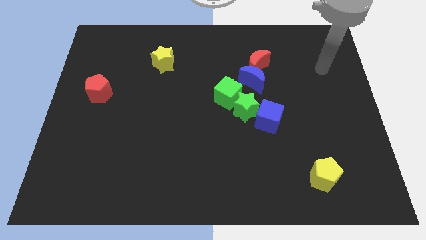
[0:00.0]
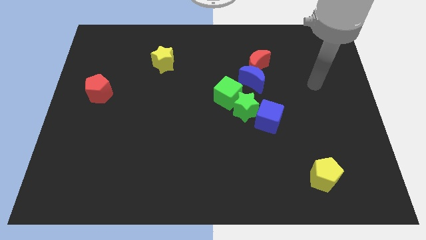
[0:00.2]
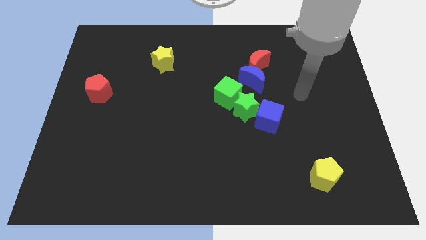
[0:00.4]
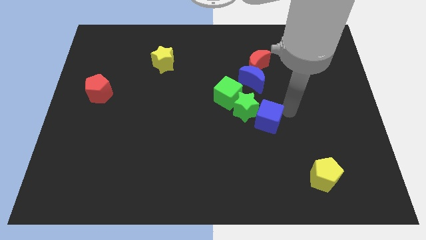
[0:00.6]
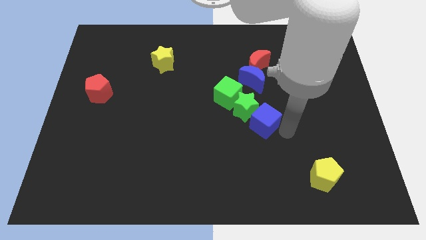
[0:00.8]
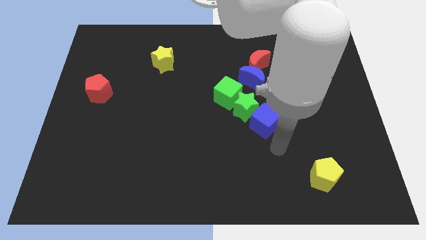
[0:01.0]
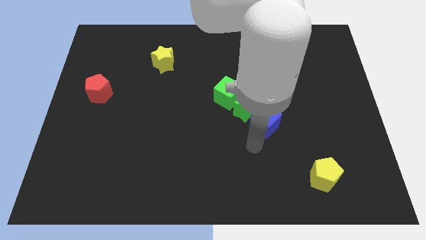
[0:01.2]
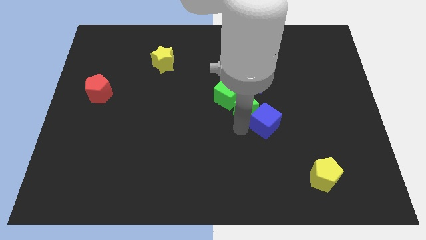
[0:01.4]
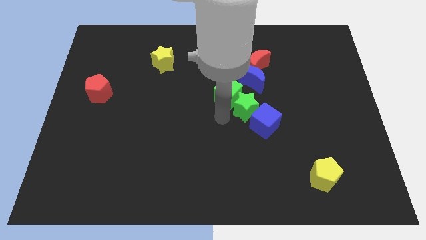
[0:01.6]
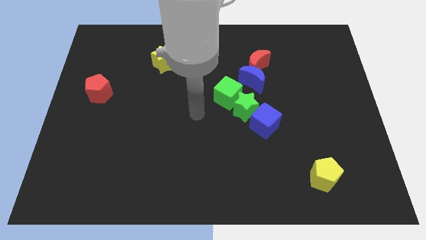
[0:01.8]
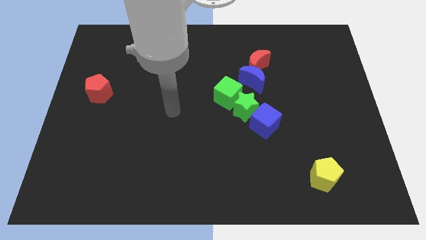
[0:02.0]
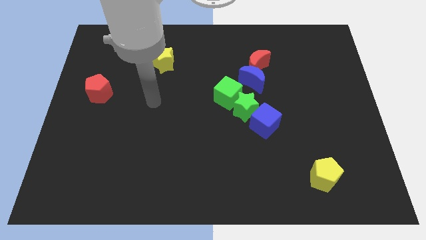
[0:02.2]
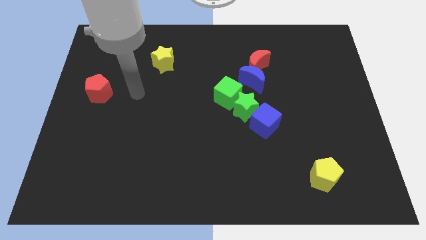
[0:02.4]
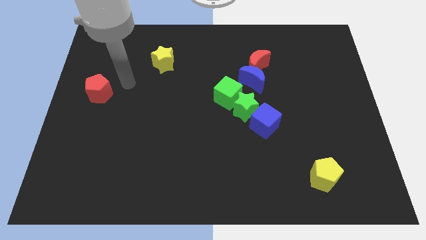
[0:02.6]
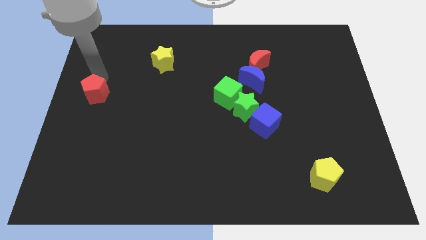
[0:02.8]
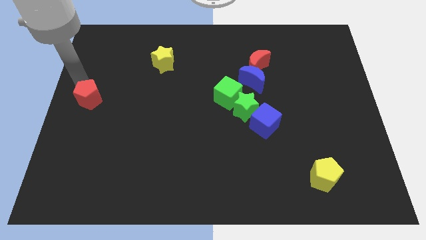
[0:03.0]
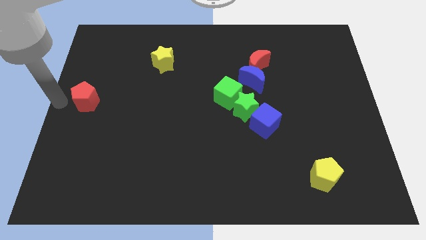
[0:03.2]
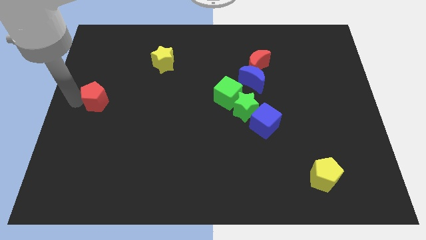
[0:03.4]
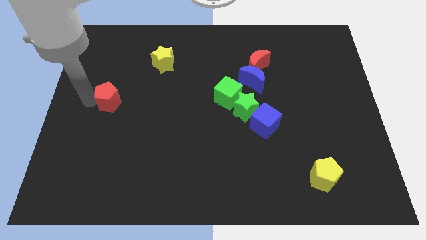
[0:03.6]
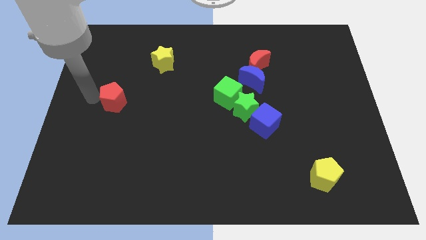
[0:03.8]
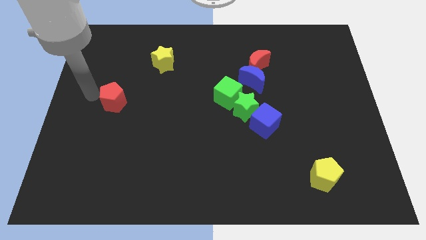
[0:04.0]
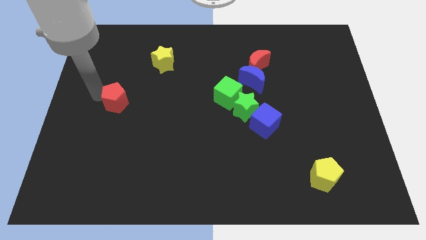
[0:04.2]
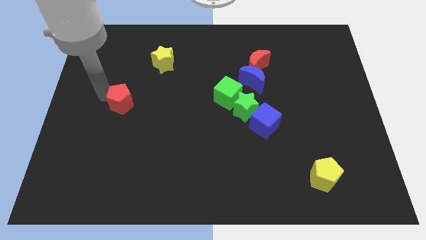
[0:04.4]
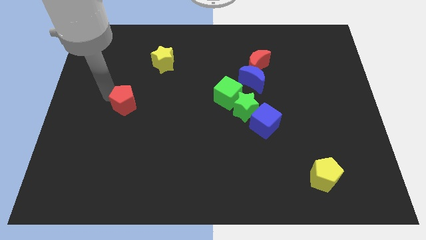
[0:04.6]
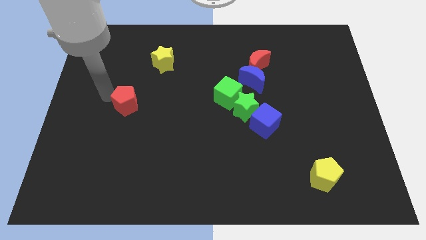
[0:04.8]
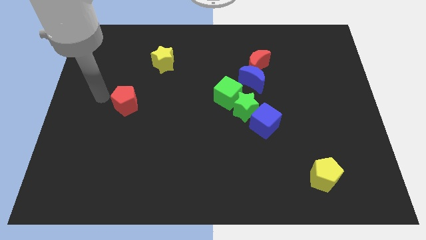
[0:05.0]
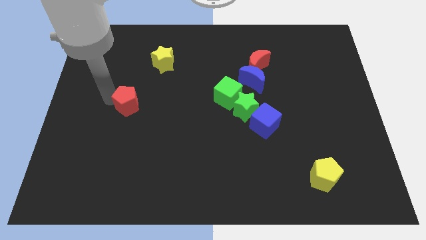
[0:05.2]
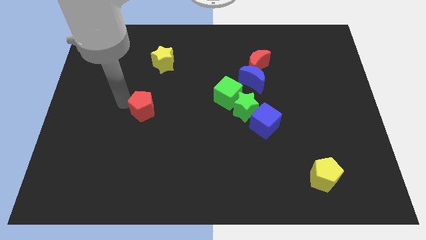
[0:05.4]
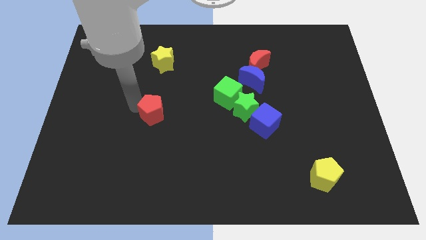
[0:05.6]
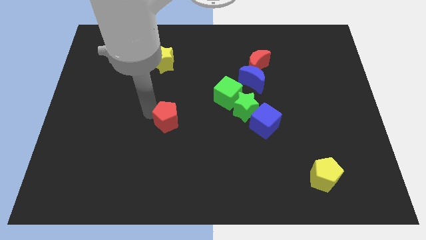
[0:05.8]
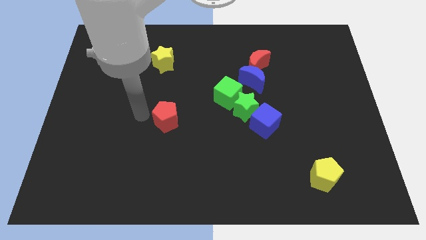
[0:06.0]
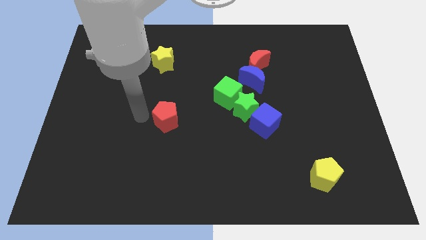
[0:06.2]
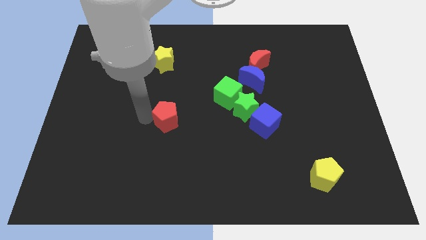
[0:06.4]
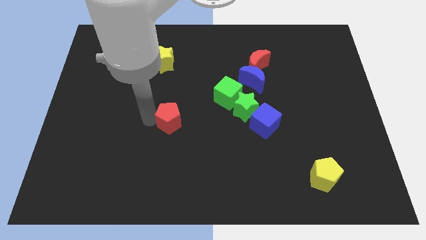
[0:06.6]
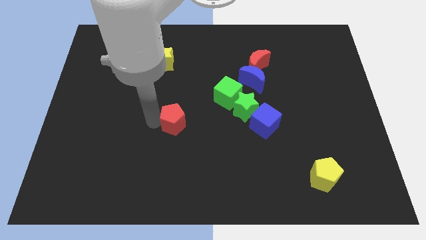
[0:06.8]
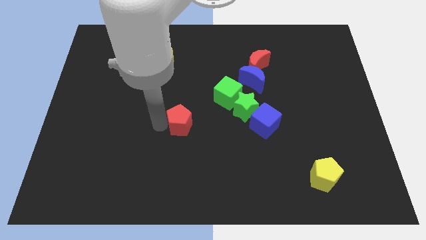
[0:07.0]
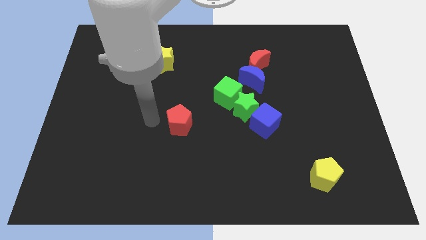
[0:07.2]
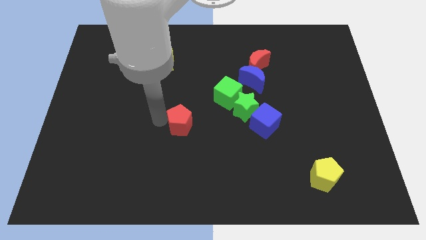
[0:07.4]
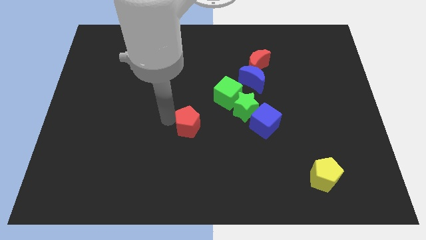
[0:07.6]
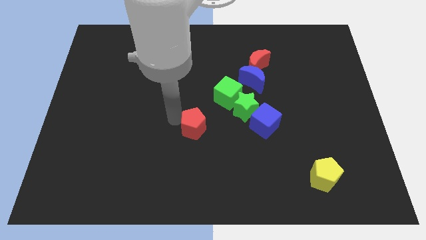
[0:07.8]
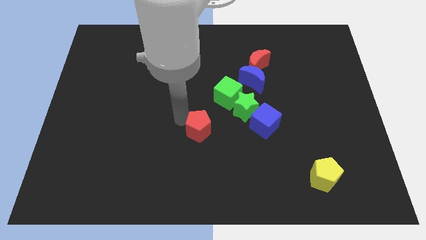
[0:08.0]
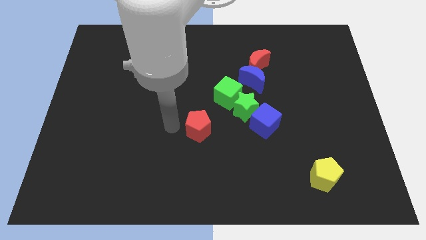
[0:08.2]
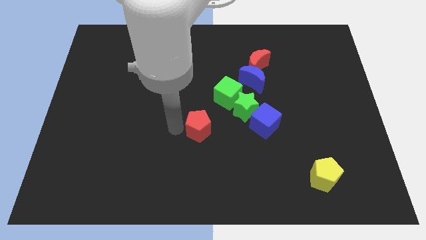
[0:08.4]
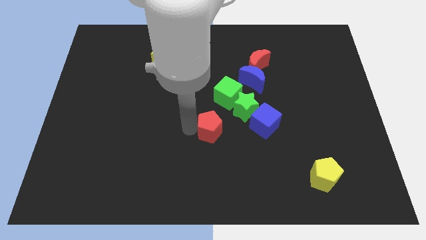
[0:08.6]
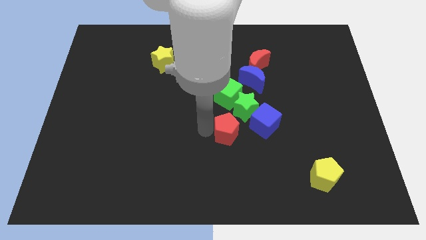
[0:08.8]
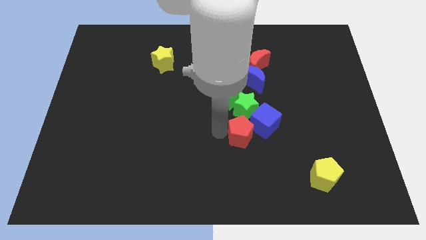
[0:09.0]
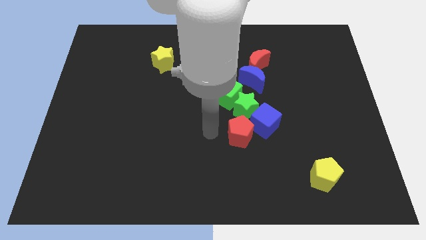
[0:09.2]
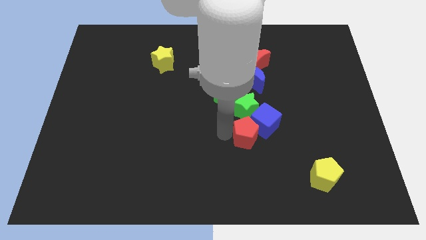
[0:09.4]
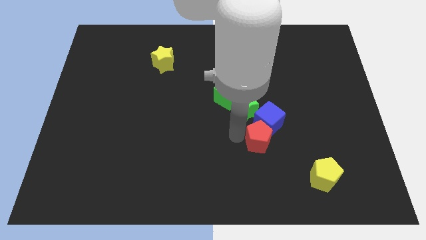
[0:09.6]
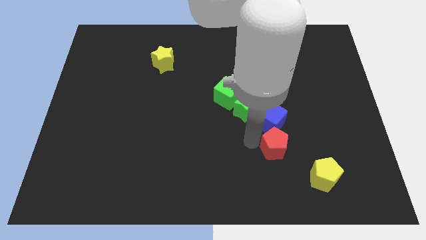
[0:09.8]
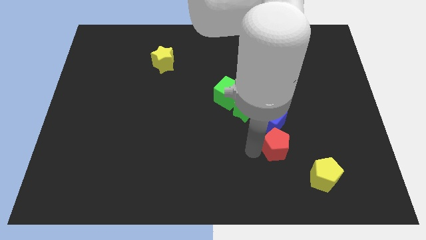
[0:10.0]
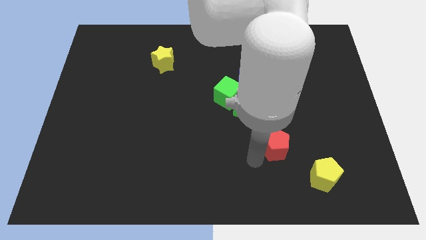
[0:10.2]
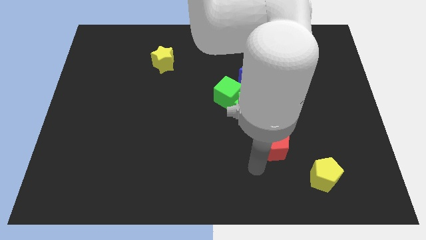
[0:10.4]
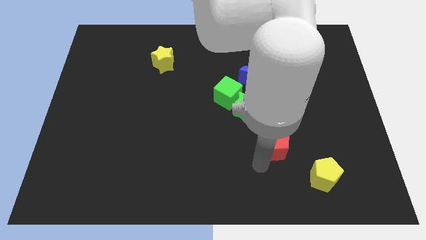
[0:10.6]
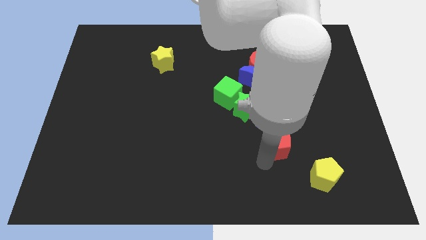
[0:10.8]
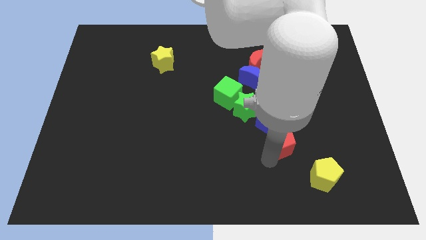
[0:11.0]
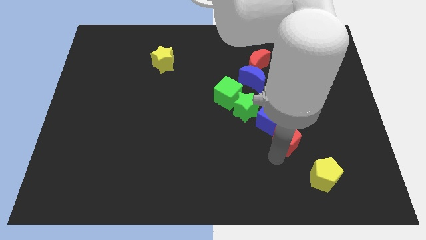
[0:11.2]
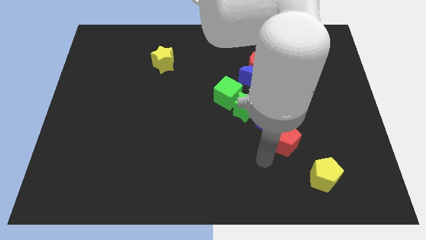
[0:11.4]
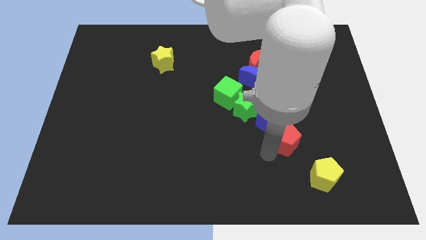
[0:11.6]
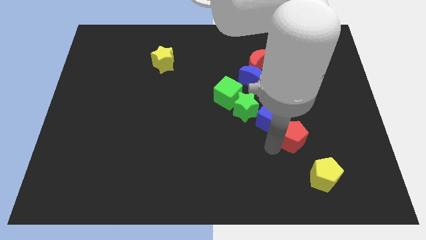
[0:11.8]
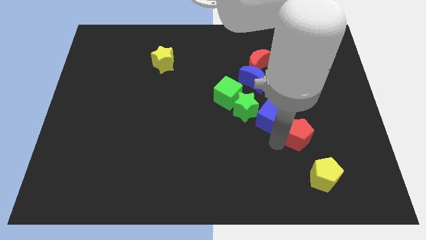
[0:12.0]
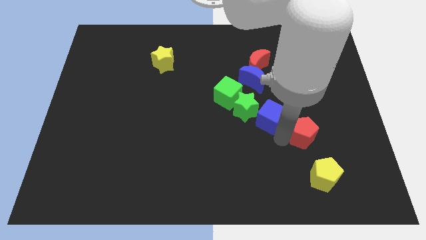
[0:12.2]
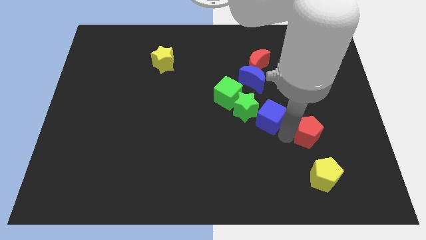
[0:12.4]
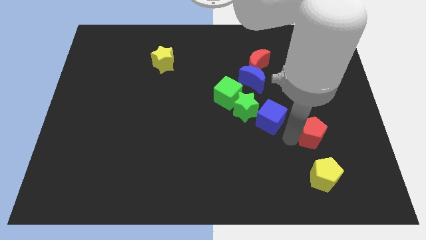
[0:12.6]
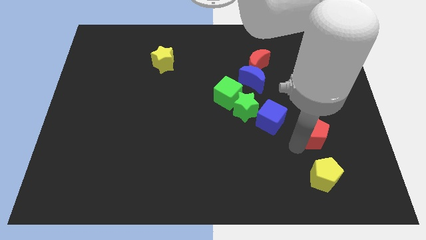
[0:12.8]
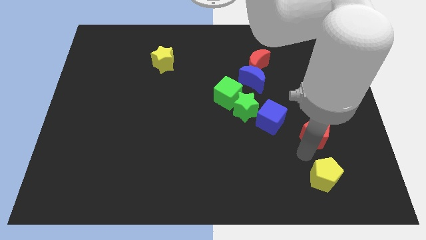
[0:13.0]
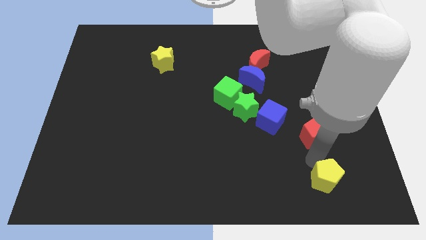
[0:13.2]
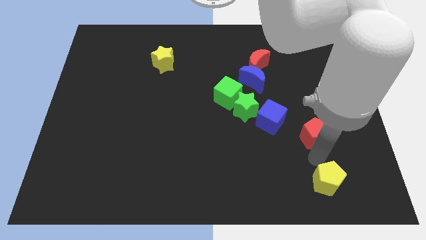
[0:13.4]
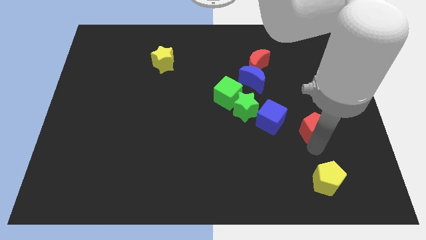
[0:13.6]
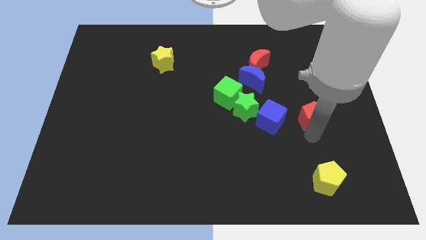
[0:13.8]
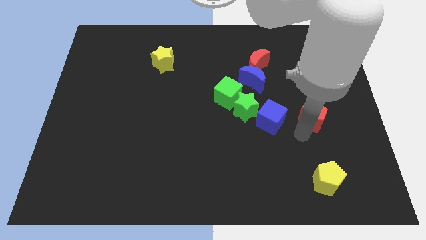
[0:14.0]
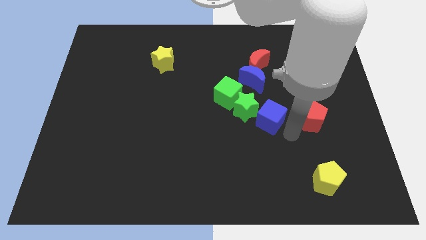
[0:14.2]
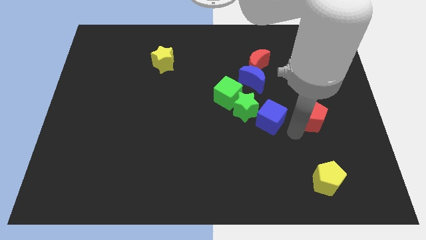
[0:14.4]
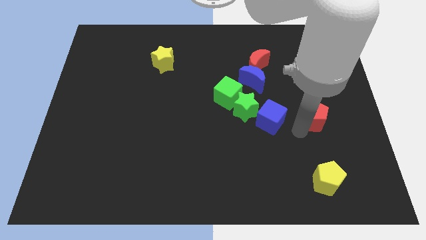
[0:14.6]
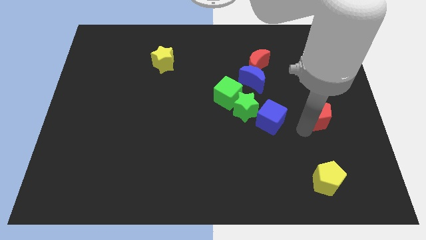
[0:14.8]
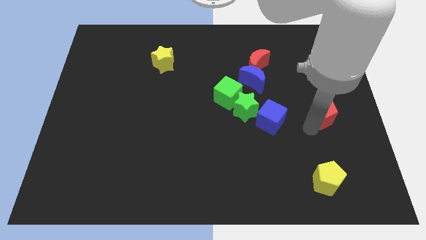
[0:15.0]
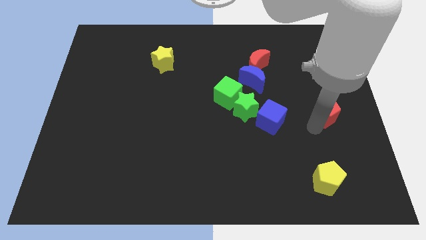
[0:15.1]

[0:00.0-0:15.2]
move the red pentagon to the right side of the board

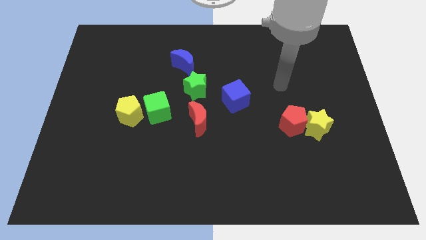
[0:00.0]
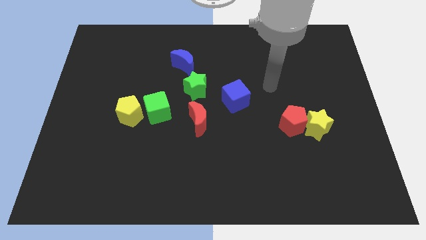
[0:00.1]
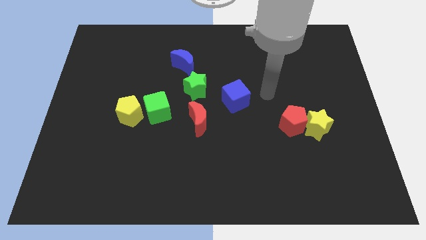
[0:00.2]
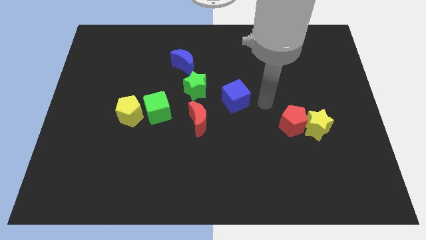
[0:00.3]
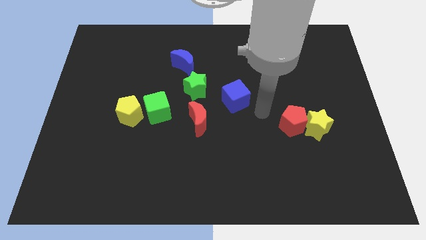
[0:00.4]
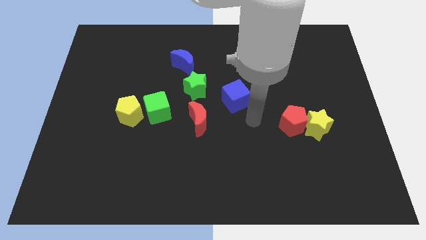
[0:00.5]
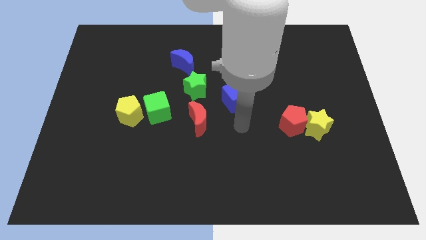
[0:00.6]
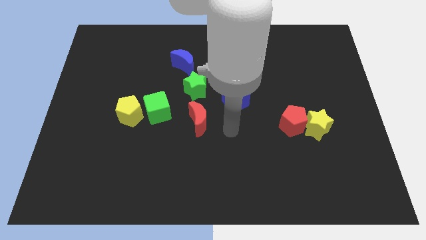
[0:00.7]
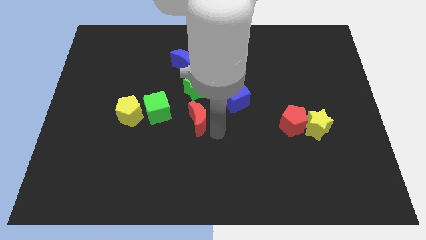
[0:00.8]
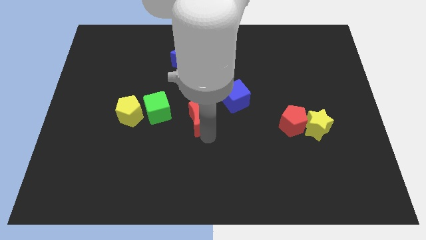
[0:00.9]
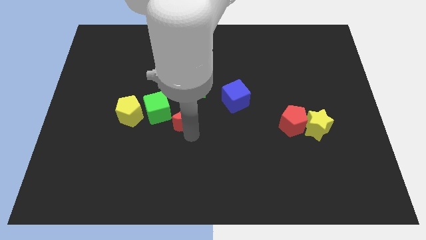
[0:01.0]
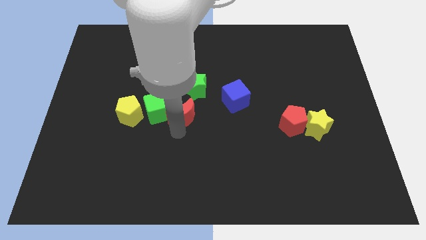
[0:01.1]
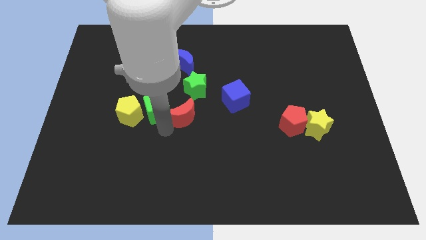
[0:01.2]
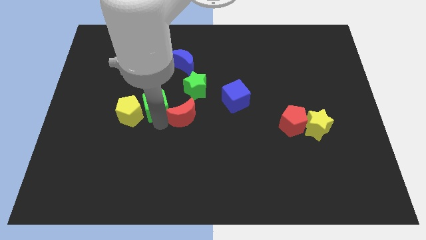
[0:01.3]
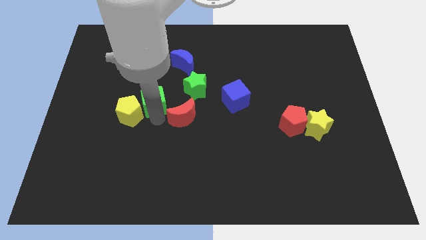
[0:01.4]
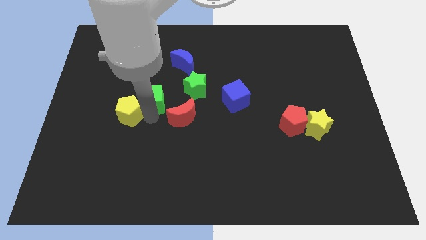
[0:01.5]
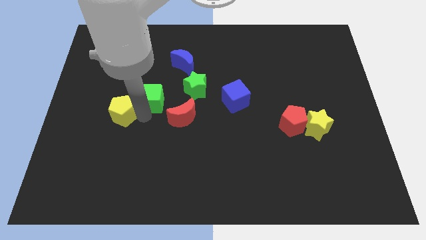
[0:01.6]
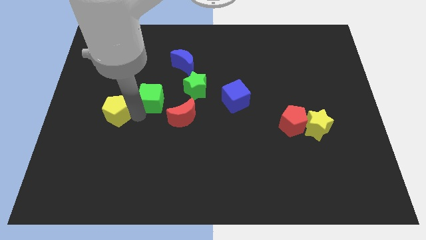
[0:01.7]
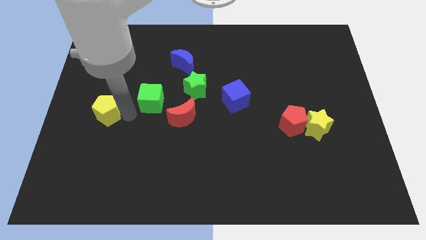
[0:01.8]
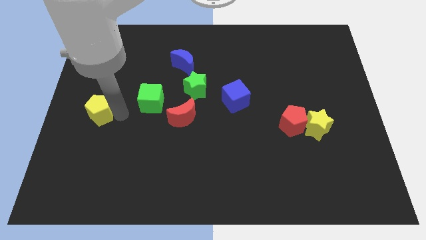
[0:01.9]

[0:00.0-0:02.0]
slide the yellow pentagon to the left side of the board
